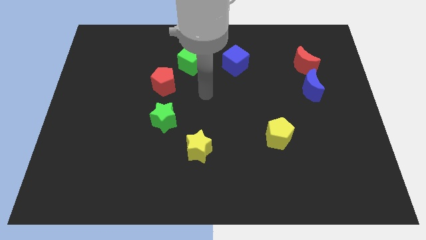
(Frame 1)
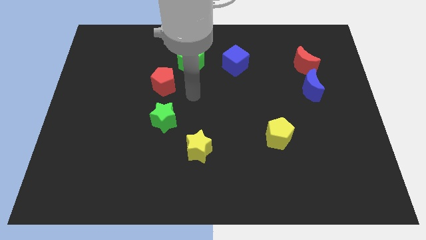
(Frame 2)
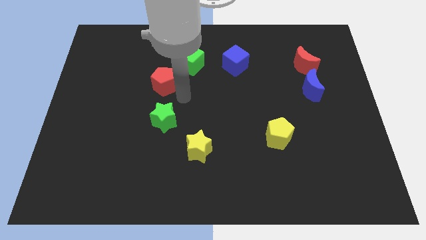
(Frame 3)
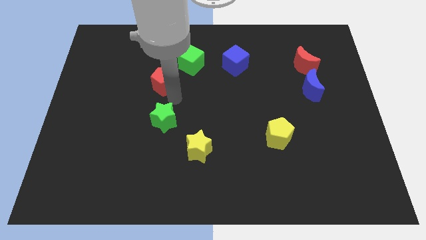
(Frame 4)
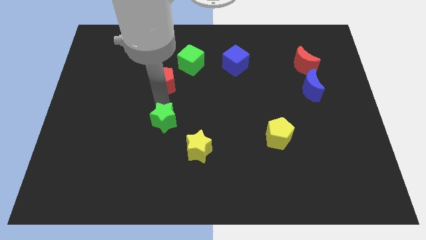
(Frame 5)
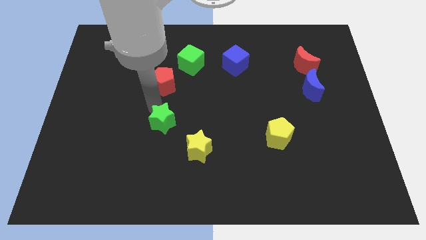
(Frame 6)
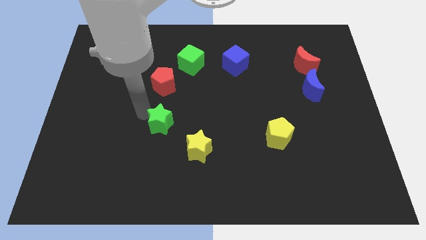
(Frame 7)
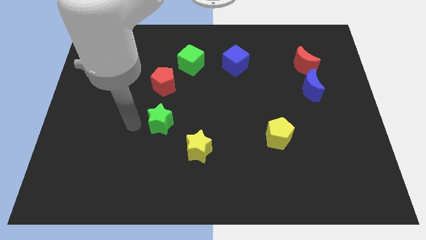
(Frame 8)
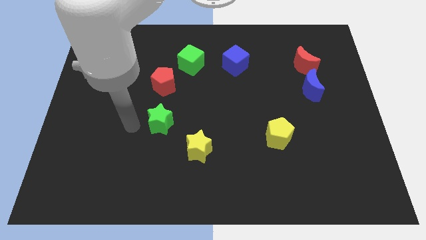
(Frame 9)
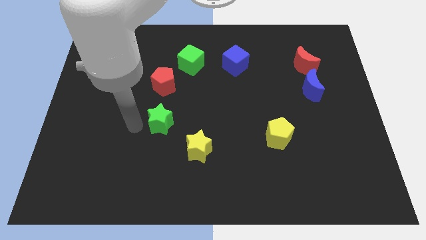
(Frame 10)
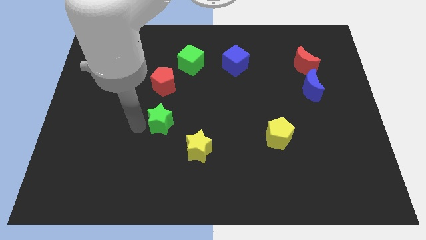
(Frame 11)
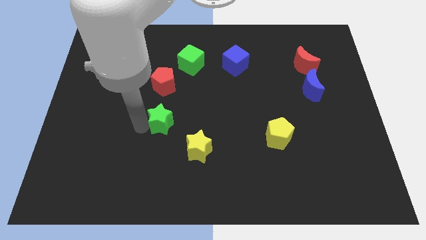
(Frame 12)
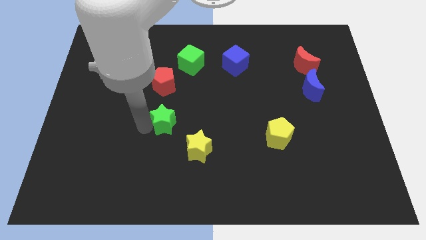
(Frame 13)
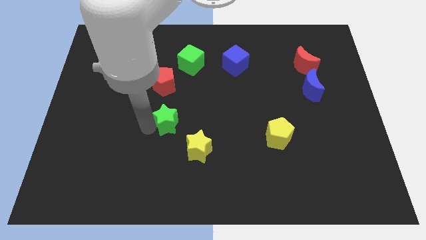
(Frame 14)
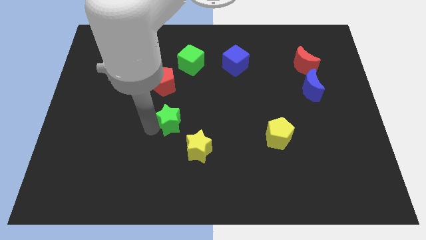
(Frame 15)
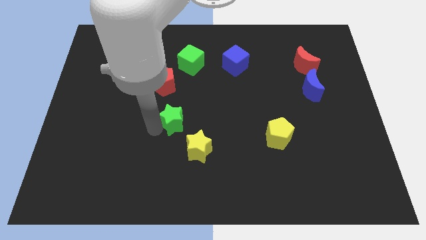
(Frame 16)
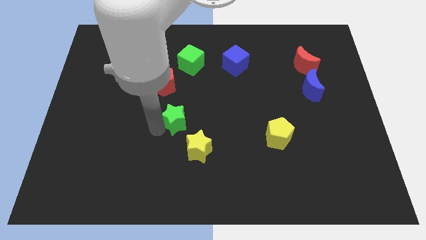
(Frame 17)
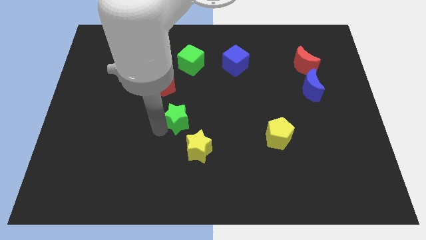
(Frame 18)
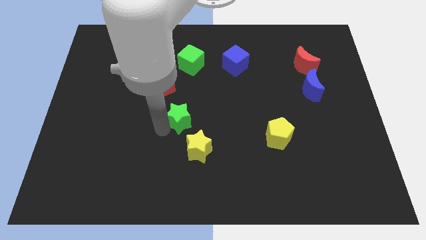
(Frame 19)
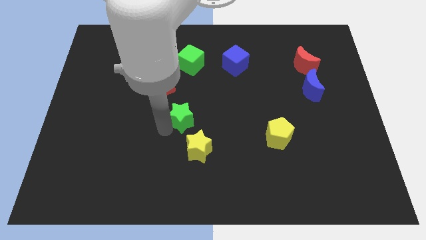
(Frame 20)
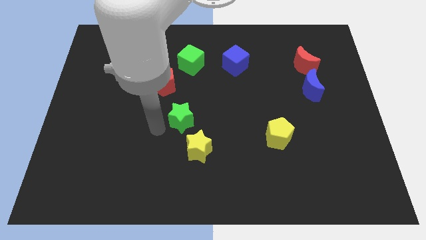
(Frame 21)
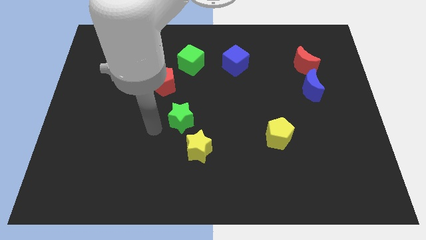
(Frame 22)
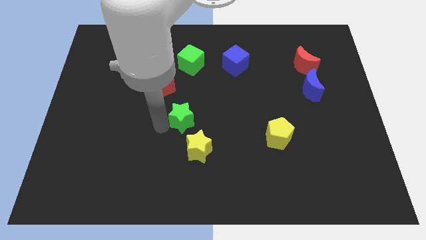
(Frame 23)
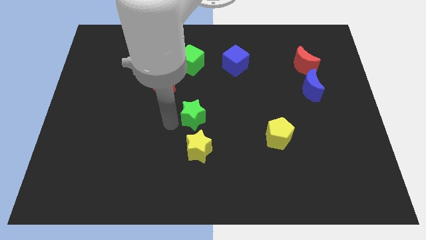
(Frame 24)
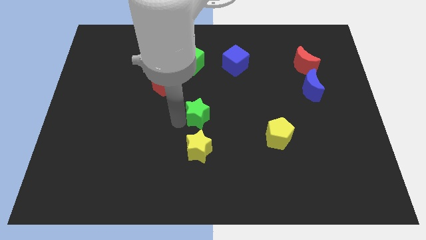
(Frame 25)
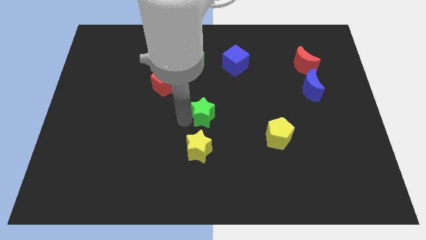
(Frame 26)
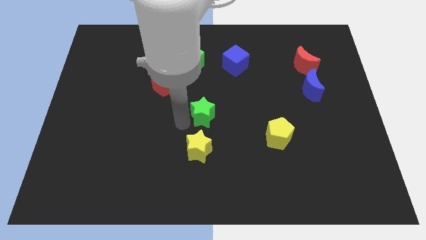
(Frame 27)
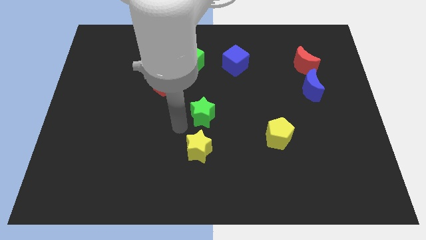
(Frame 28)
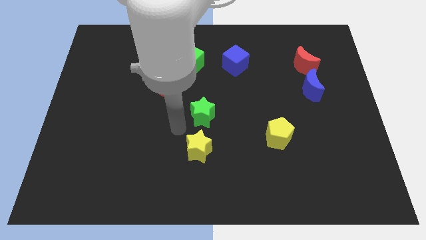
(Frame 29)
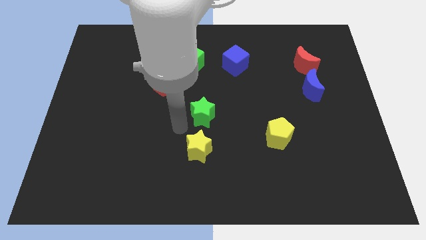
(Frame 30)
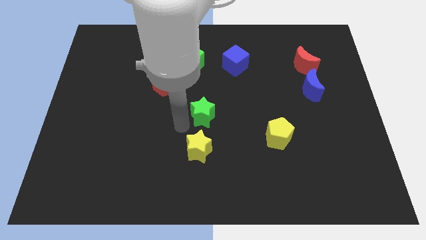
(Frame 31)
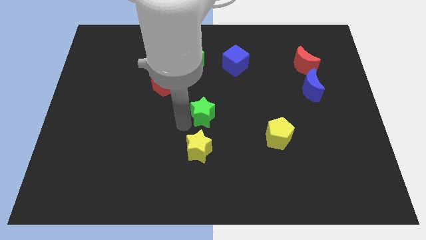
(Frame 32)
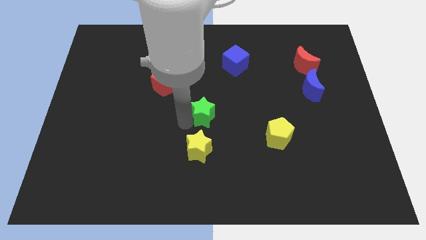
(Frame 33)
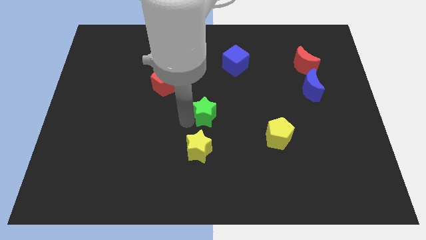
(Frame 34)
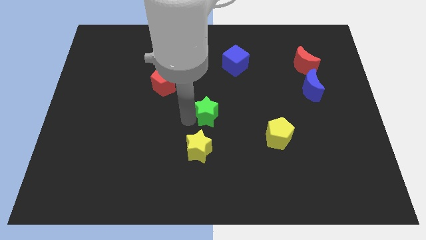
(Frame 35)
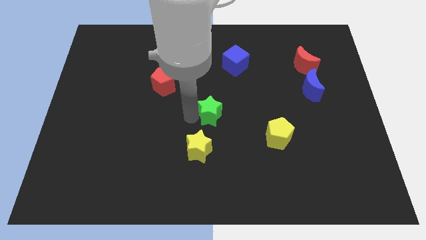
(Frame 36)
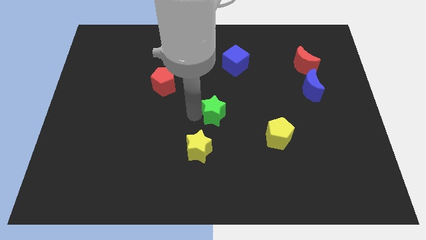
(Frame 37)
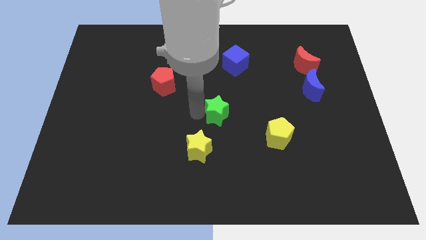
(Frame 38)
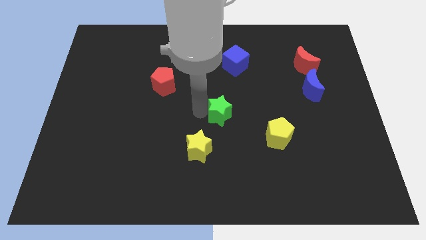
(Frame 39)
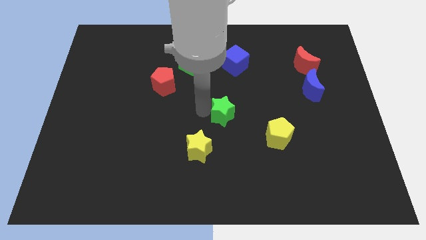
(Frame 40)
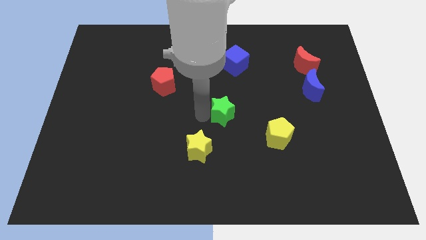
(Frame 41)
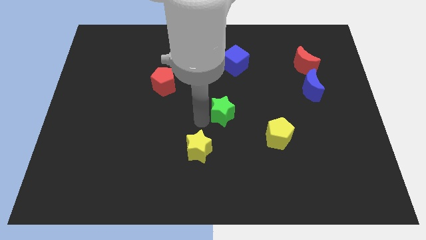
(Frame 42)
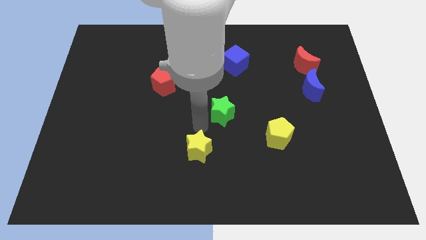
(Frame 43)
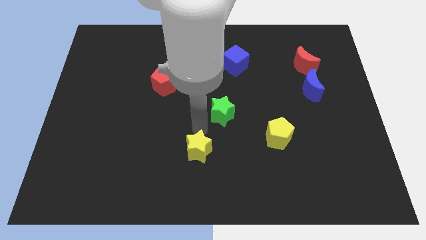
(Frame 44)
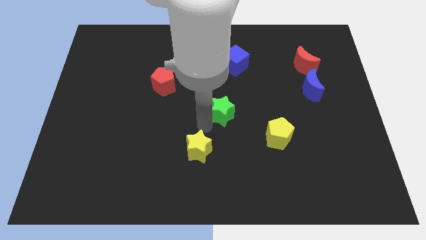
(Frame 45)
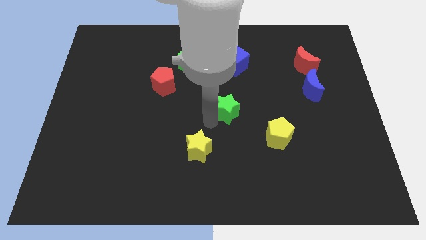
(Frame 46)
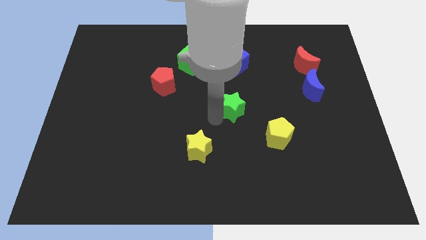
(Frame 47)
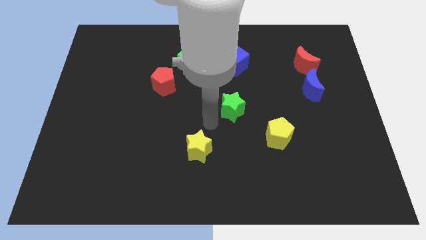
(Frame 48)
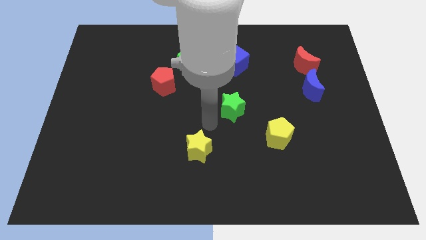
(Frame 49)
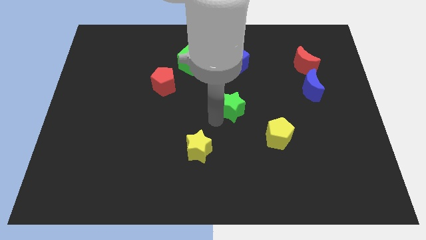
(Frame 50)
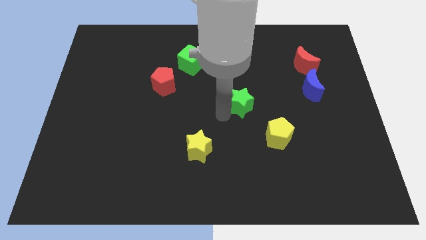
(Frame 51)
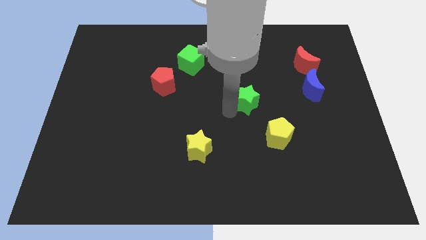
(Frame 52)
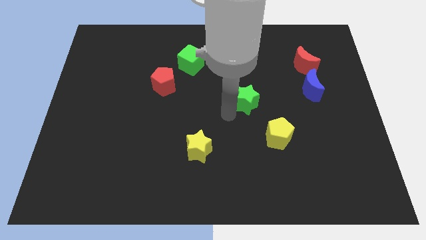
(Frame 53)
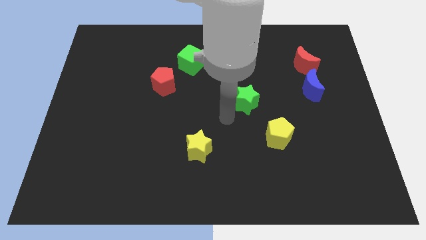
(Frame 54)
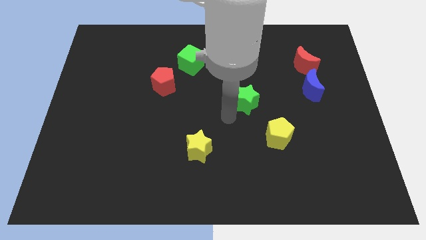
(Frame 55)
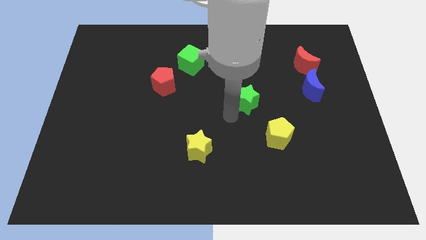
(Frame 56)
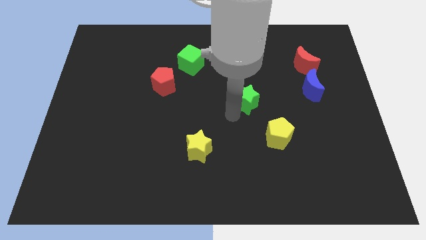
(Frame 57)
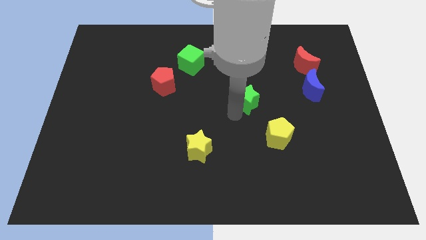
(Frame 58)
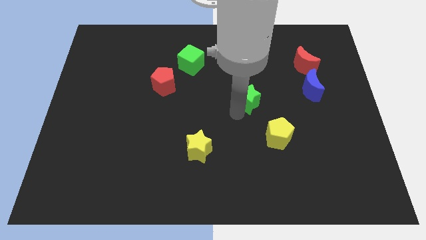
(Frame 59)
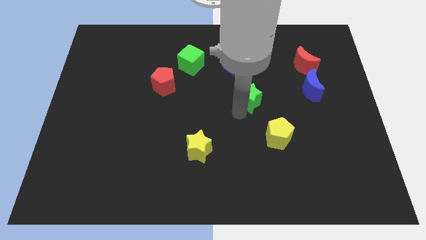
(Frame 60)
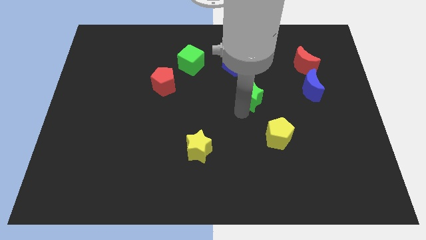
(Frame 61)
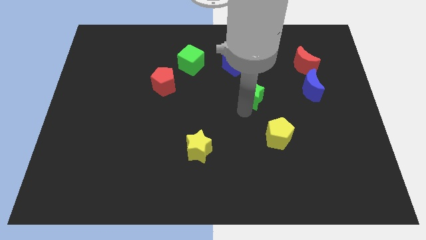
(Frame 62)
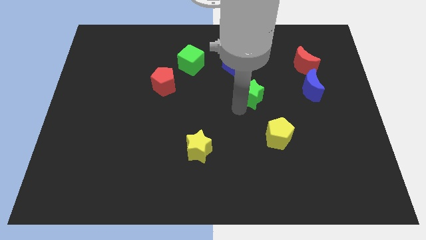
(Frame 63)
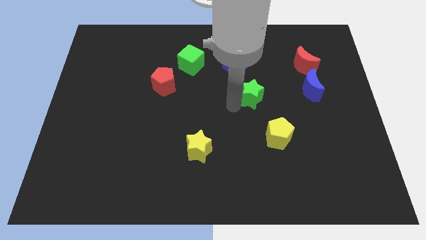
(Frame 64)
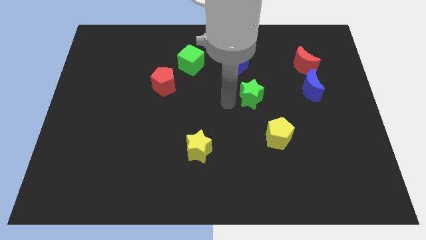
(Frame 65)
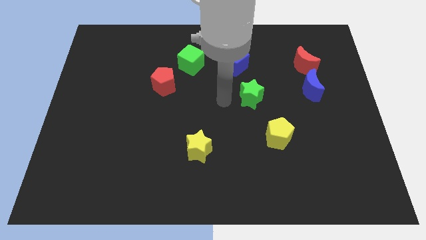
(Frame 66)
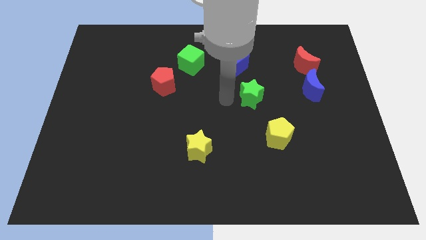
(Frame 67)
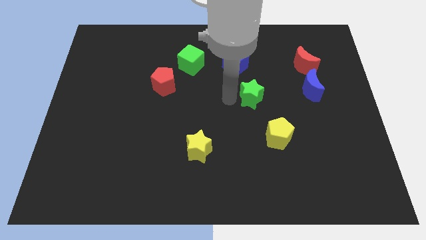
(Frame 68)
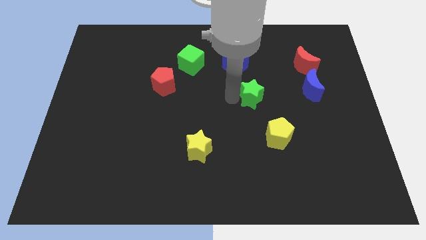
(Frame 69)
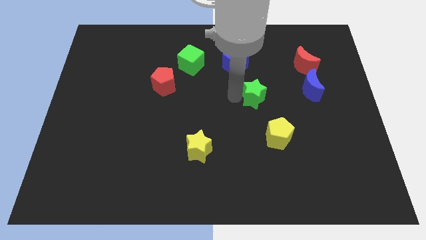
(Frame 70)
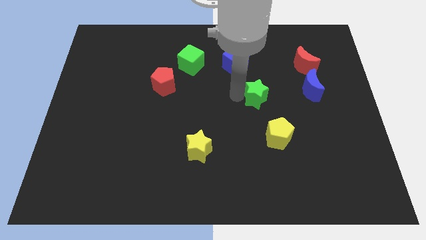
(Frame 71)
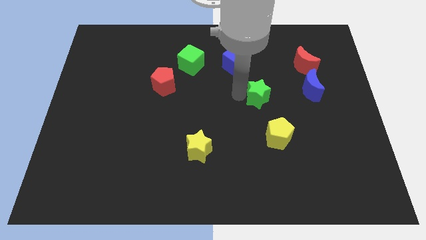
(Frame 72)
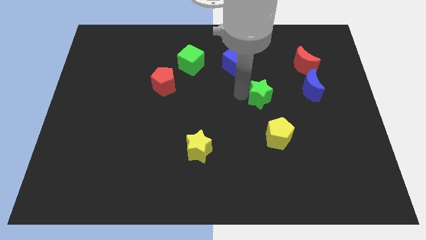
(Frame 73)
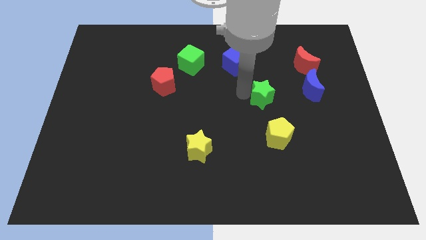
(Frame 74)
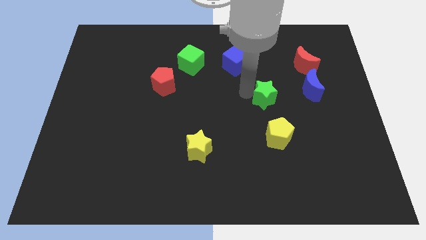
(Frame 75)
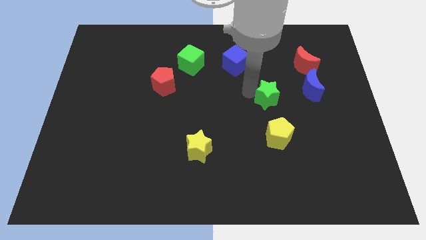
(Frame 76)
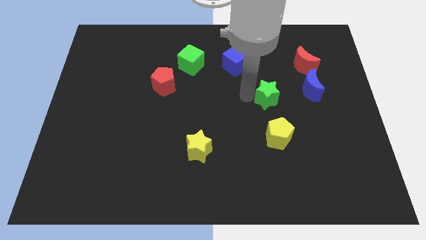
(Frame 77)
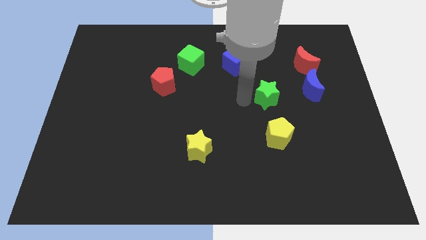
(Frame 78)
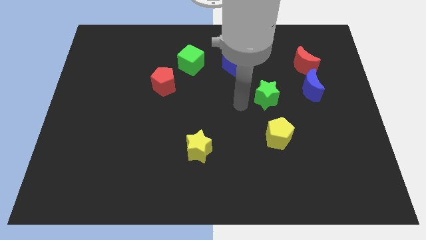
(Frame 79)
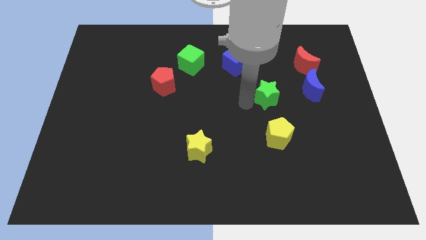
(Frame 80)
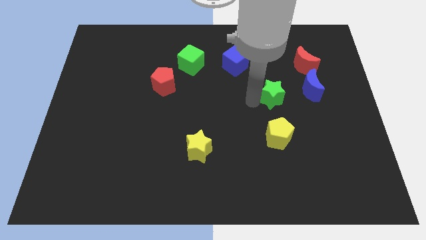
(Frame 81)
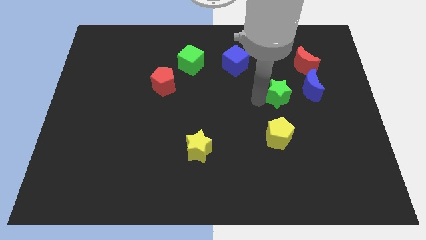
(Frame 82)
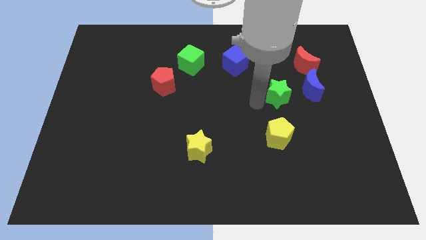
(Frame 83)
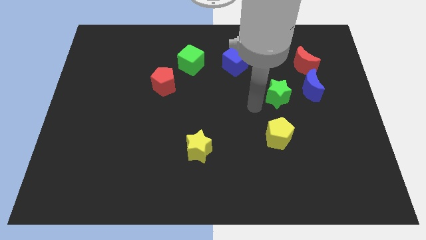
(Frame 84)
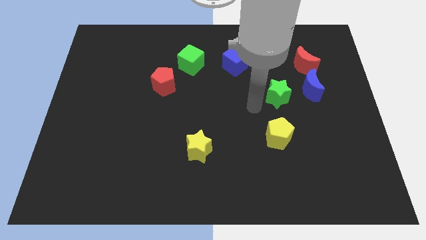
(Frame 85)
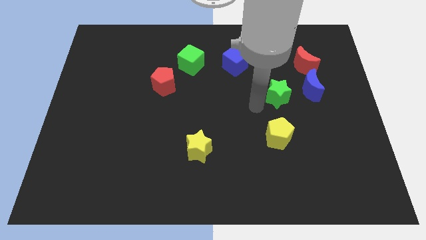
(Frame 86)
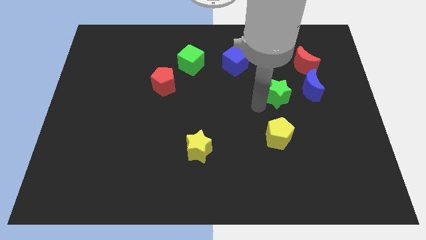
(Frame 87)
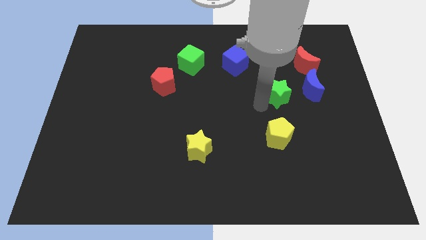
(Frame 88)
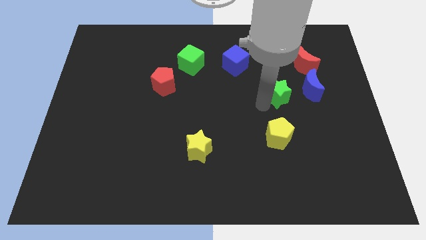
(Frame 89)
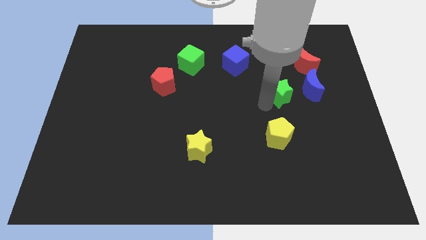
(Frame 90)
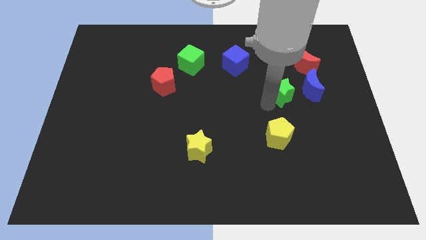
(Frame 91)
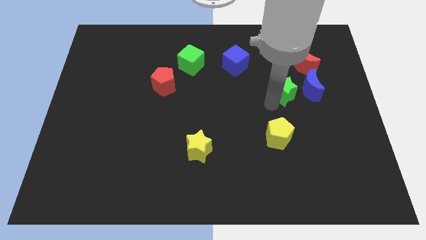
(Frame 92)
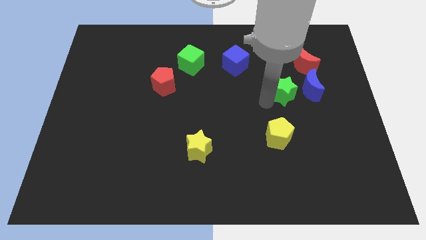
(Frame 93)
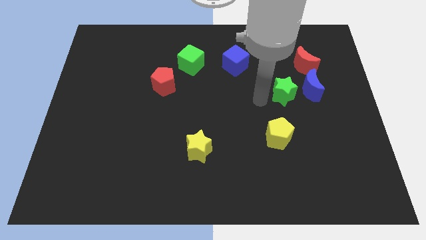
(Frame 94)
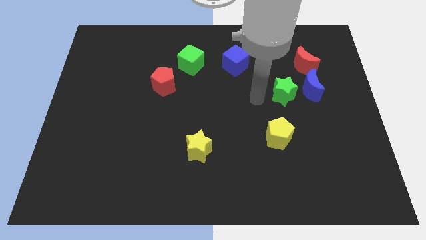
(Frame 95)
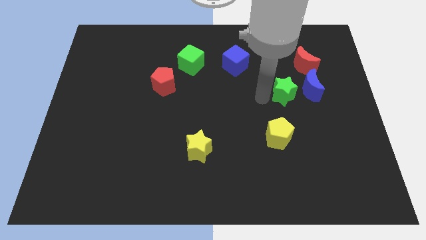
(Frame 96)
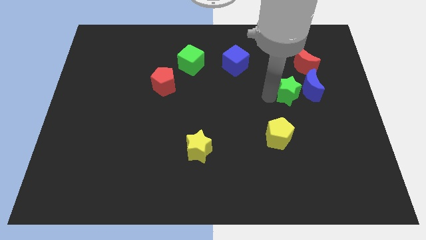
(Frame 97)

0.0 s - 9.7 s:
push the green star to the blue moon
